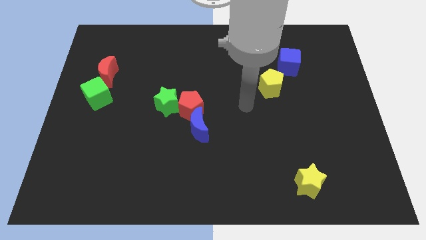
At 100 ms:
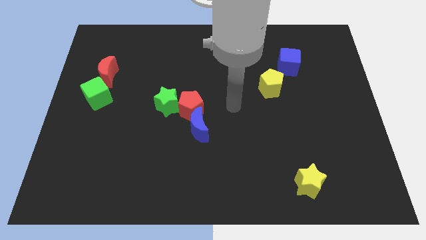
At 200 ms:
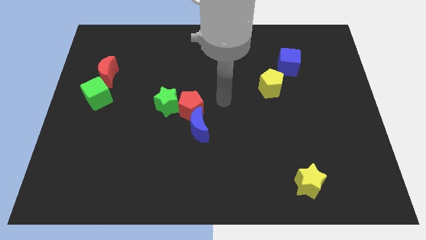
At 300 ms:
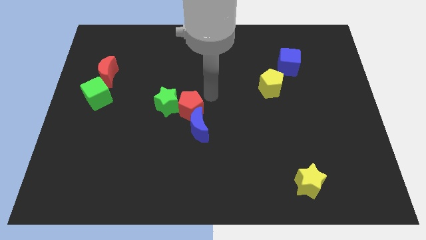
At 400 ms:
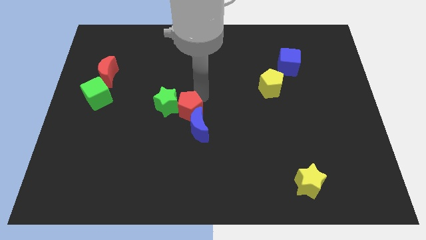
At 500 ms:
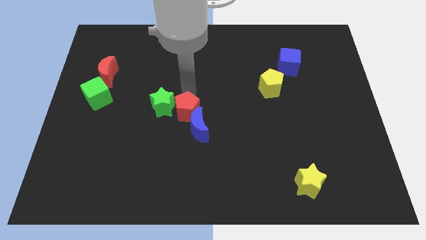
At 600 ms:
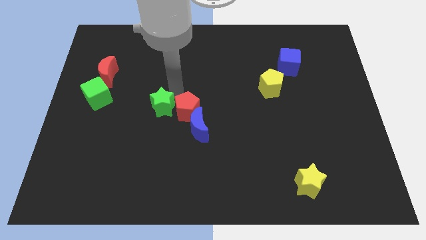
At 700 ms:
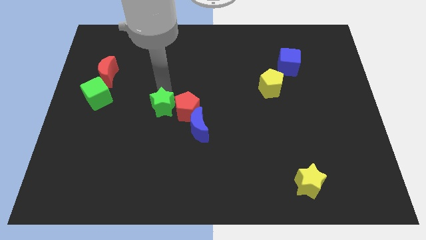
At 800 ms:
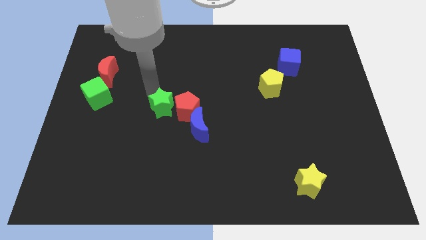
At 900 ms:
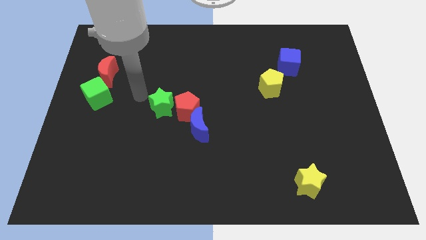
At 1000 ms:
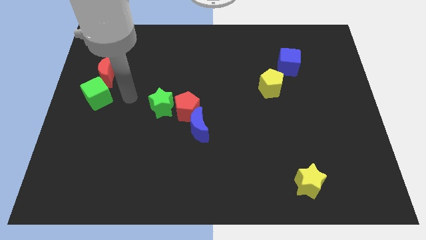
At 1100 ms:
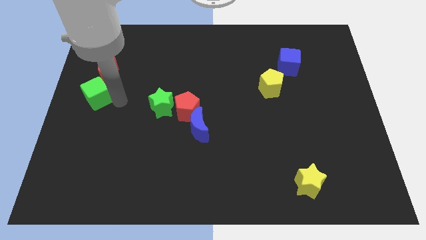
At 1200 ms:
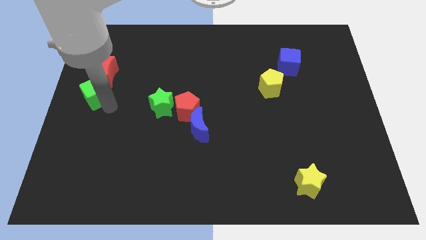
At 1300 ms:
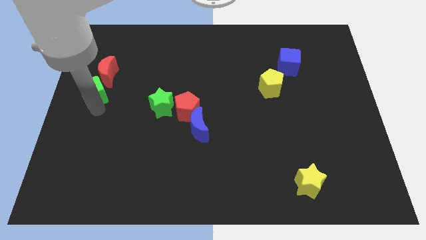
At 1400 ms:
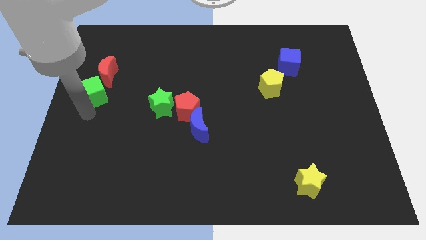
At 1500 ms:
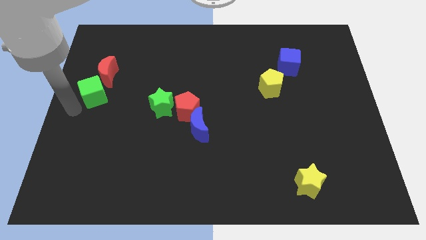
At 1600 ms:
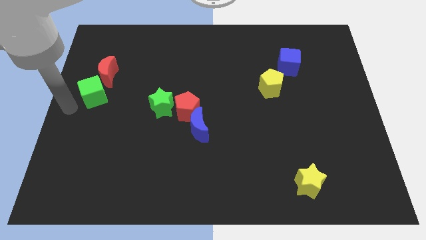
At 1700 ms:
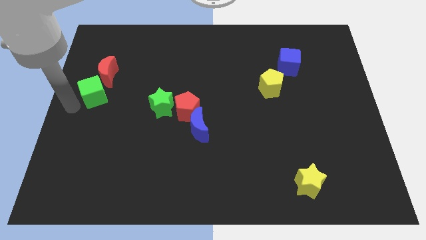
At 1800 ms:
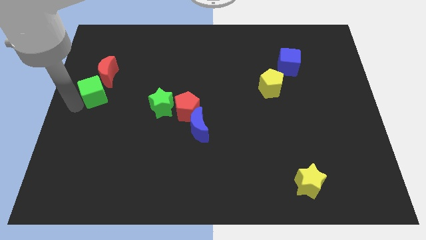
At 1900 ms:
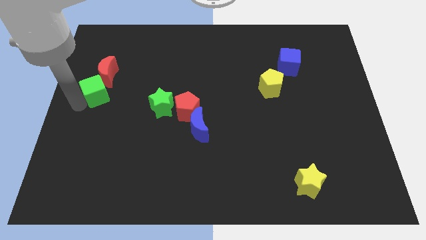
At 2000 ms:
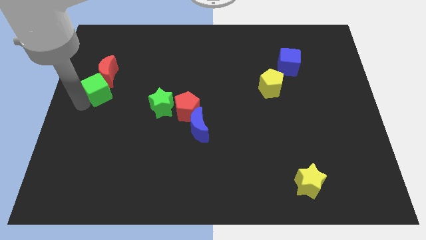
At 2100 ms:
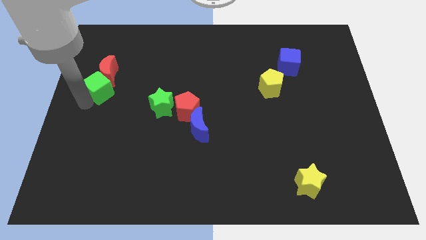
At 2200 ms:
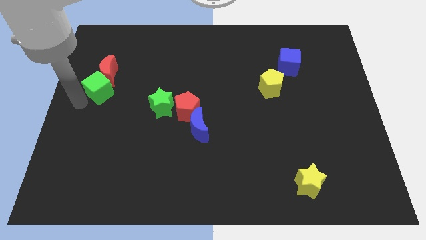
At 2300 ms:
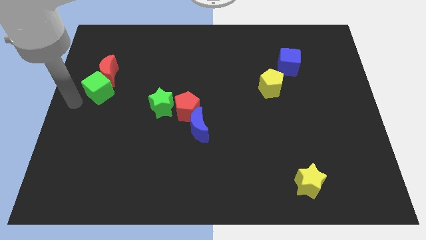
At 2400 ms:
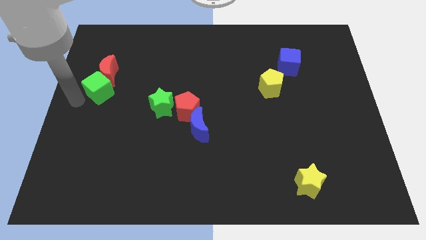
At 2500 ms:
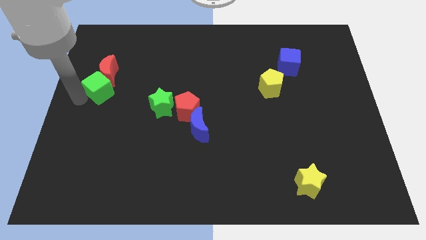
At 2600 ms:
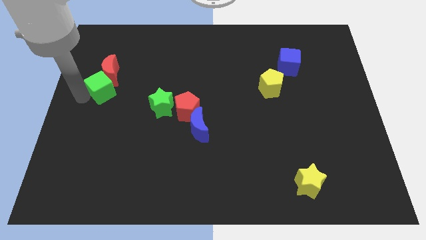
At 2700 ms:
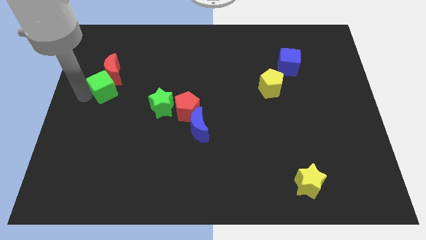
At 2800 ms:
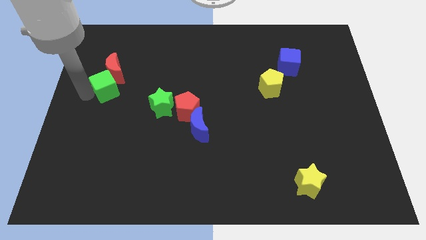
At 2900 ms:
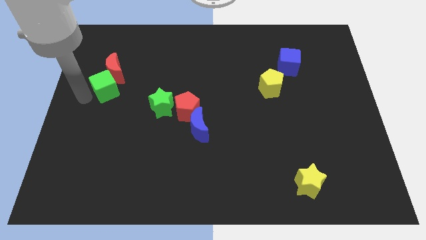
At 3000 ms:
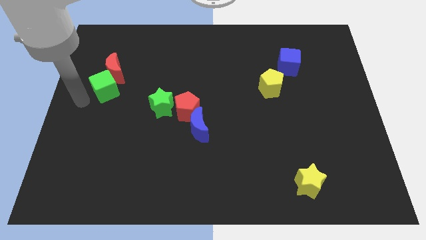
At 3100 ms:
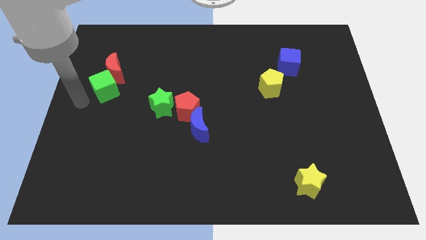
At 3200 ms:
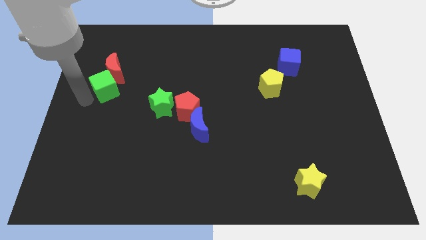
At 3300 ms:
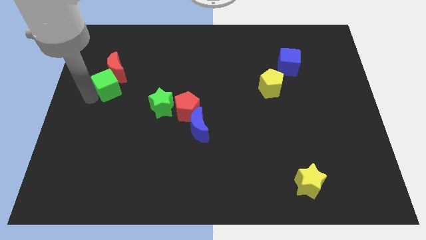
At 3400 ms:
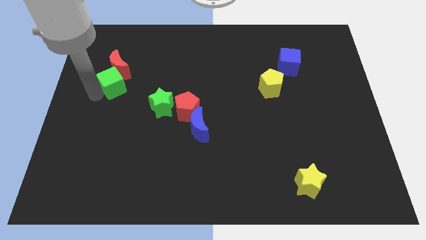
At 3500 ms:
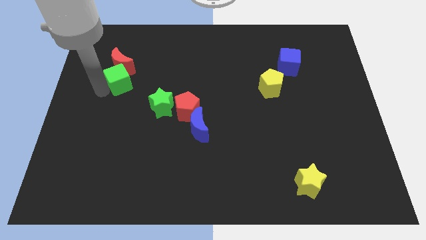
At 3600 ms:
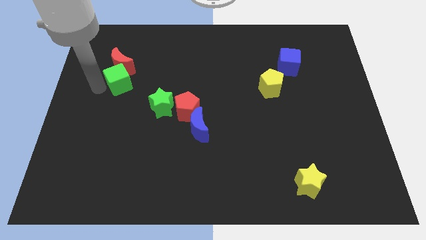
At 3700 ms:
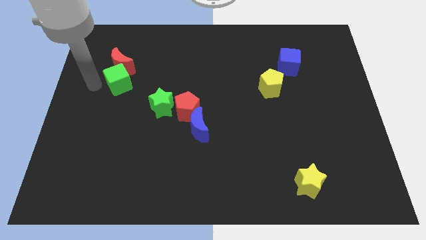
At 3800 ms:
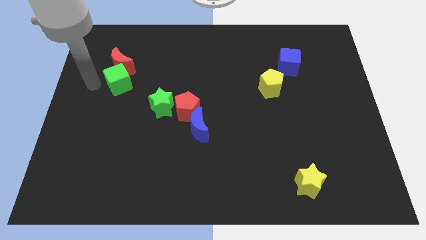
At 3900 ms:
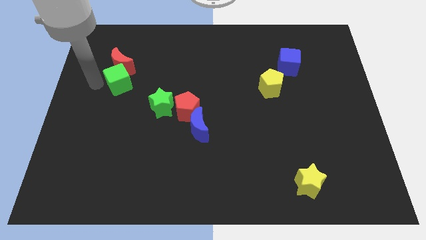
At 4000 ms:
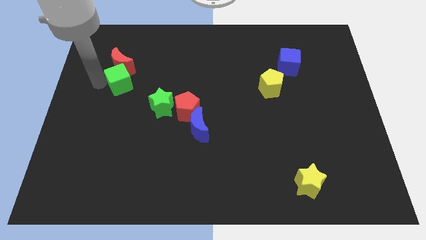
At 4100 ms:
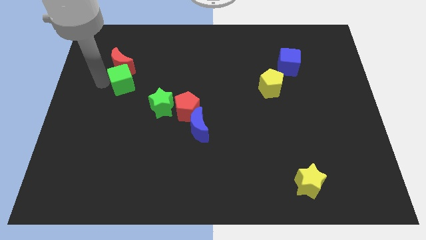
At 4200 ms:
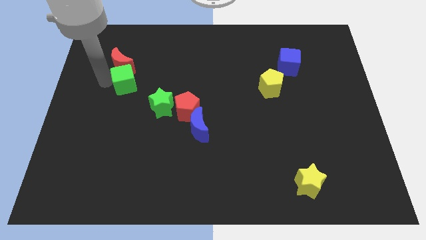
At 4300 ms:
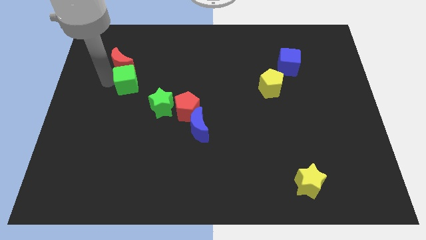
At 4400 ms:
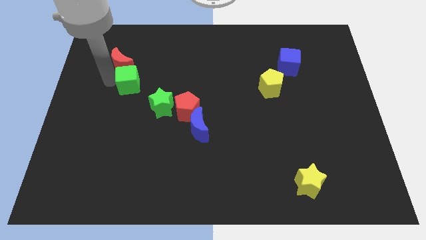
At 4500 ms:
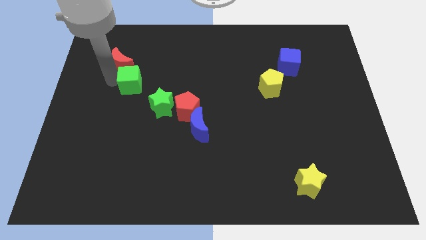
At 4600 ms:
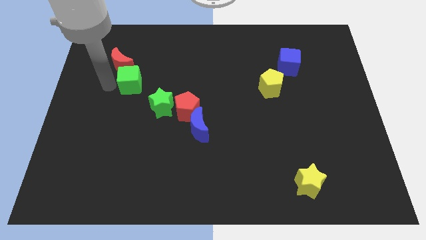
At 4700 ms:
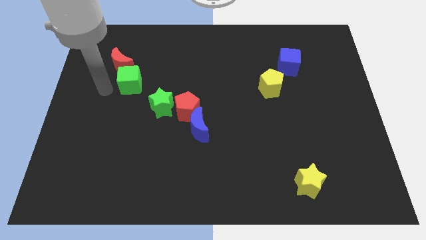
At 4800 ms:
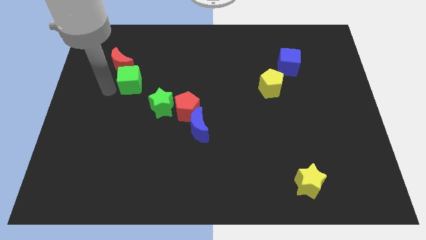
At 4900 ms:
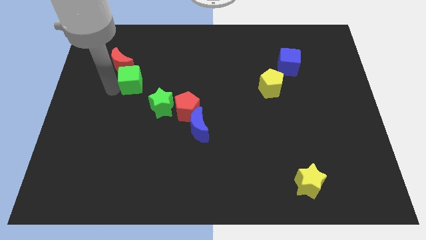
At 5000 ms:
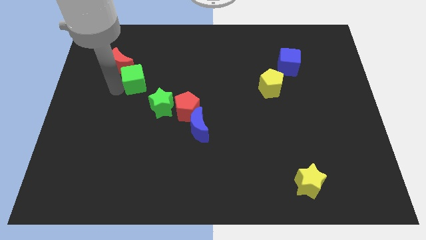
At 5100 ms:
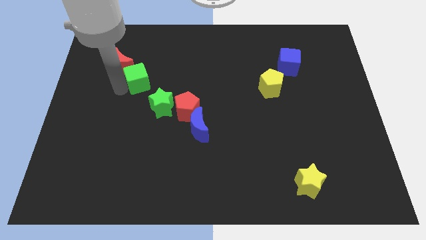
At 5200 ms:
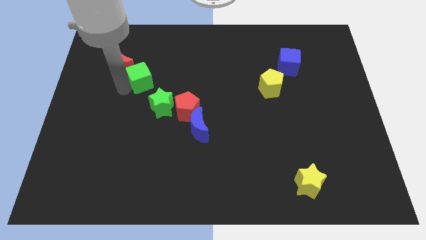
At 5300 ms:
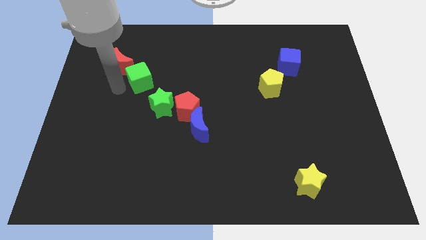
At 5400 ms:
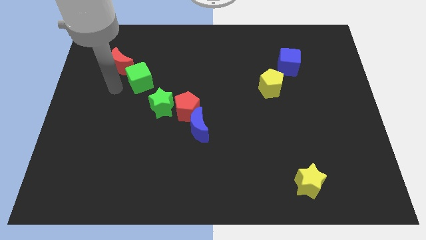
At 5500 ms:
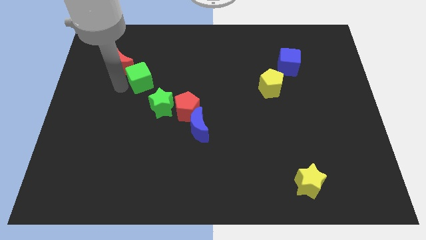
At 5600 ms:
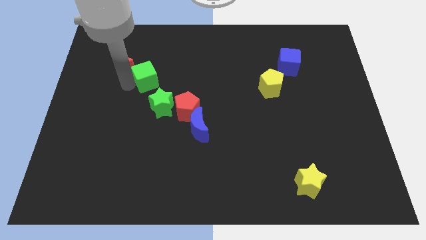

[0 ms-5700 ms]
push the green cube to the top of the green star

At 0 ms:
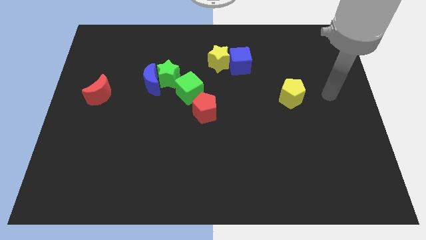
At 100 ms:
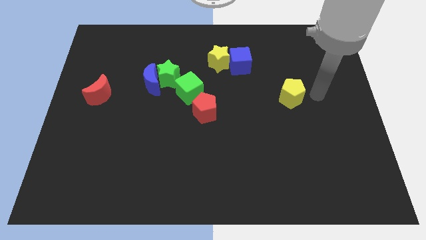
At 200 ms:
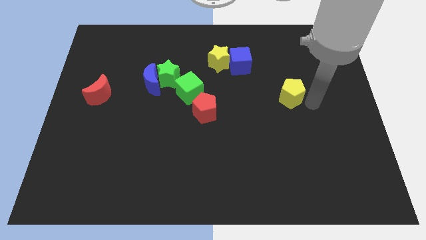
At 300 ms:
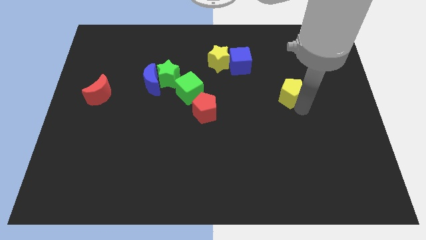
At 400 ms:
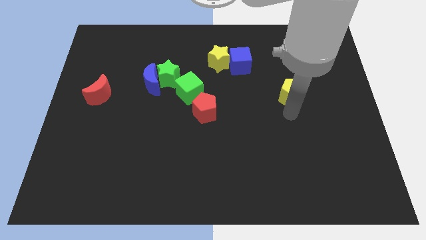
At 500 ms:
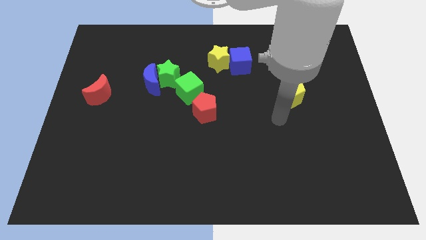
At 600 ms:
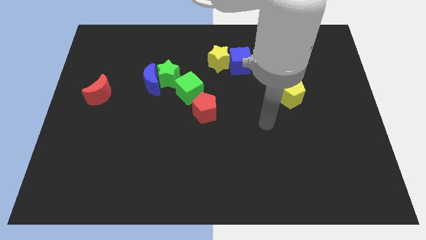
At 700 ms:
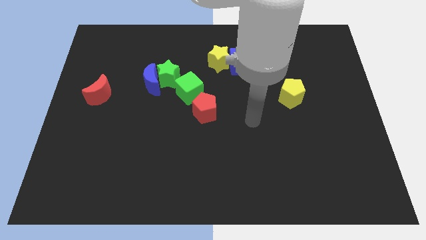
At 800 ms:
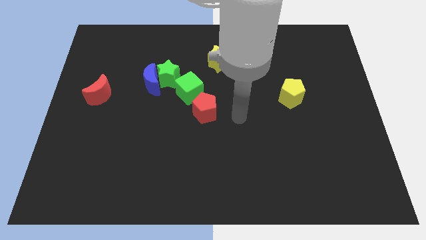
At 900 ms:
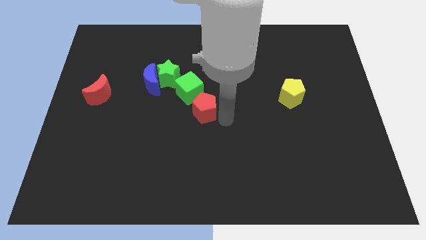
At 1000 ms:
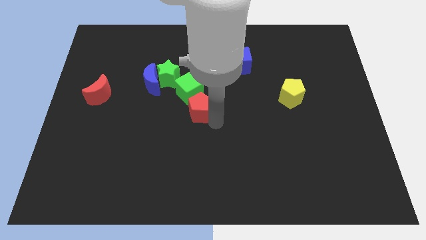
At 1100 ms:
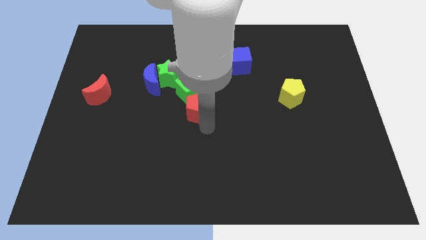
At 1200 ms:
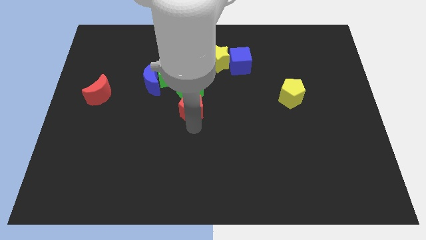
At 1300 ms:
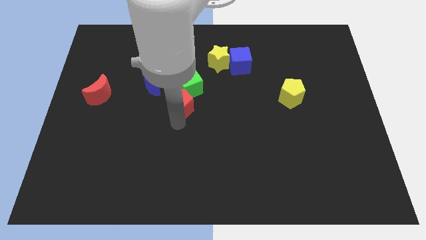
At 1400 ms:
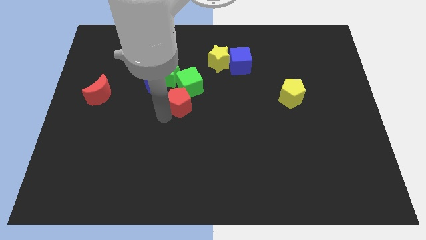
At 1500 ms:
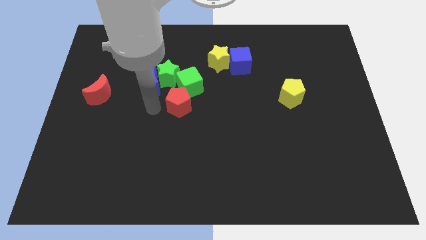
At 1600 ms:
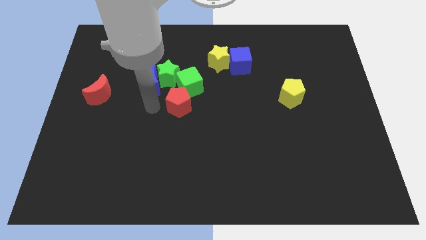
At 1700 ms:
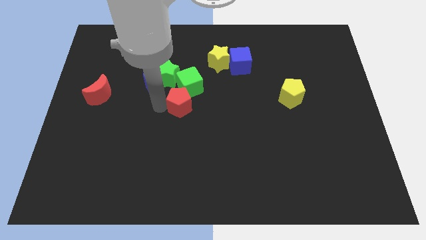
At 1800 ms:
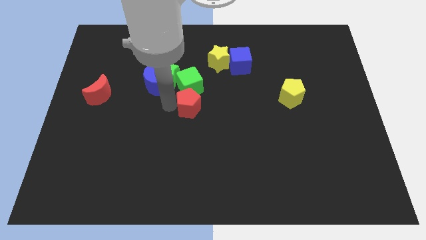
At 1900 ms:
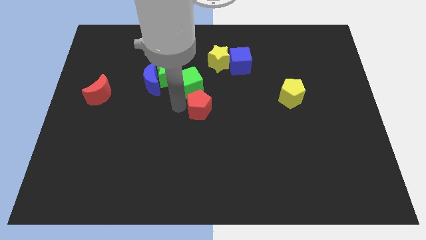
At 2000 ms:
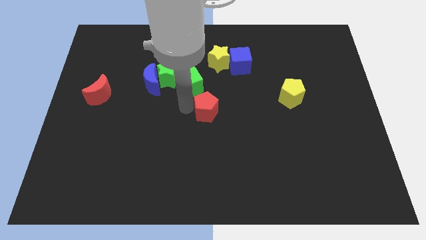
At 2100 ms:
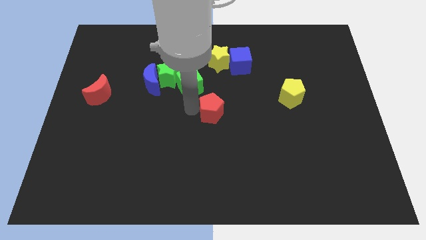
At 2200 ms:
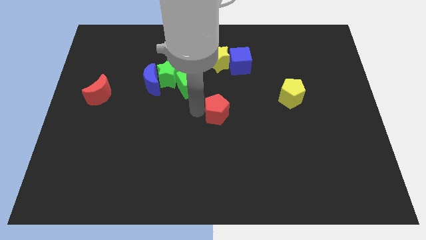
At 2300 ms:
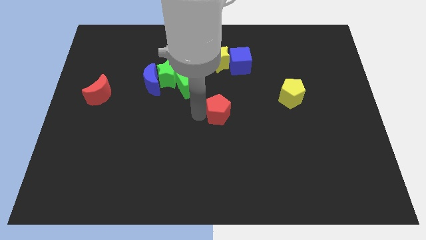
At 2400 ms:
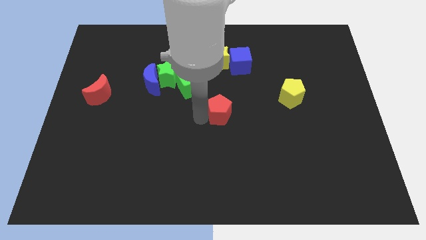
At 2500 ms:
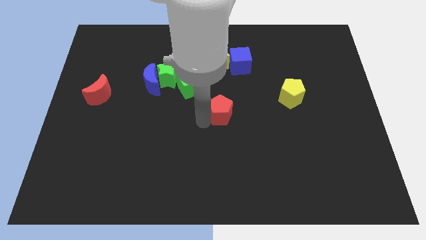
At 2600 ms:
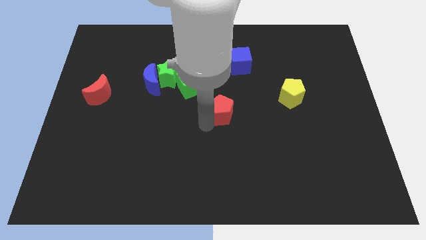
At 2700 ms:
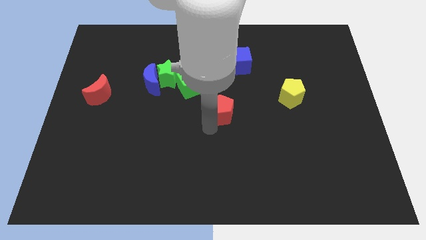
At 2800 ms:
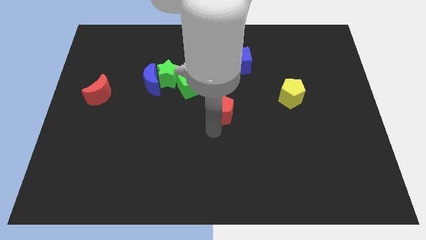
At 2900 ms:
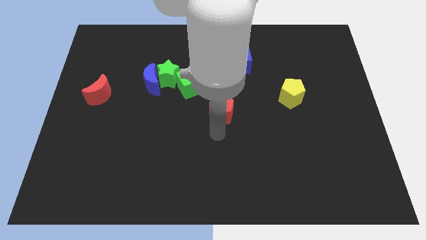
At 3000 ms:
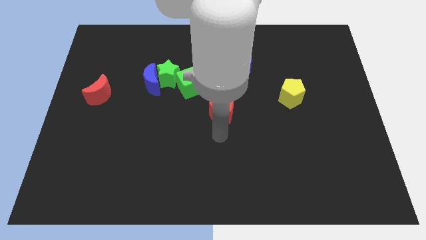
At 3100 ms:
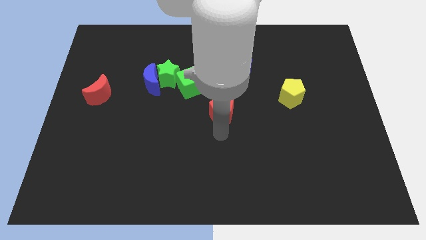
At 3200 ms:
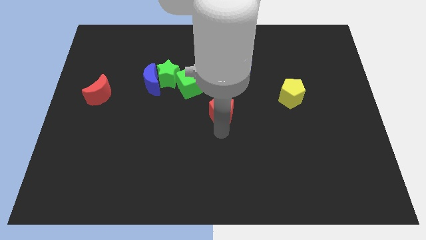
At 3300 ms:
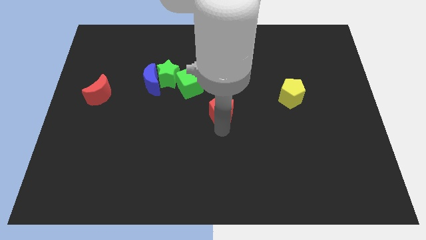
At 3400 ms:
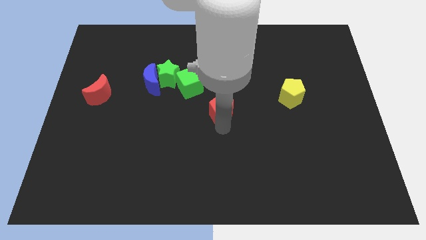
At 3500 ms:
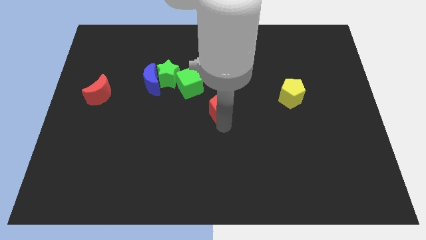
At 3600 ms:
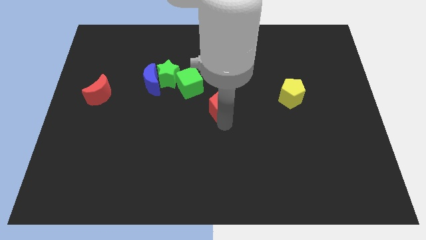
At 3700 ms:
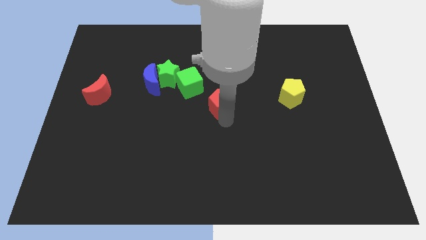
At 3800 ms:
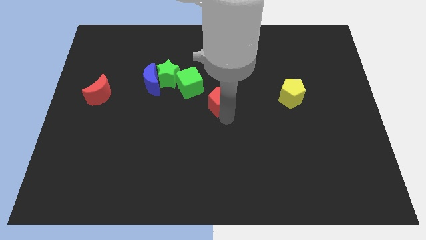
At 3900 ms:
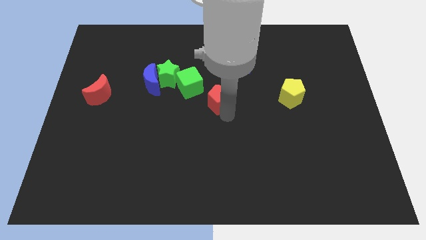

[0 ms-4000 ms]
push the red pentagon to the right side of the green cube
